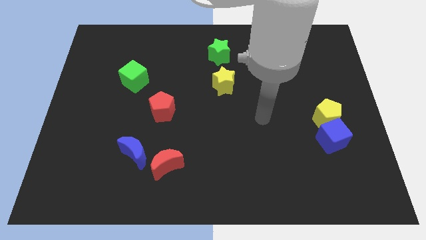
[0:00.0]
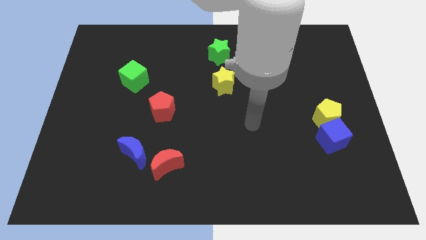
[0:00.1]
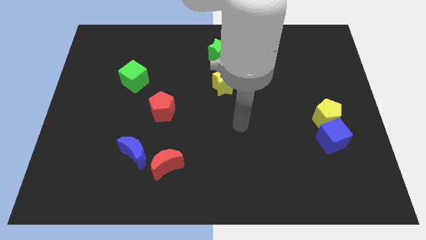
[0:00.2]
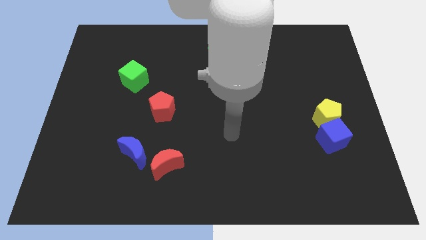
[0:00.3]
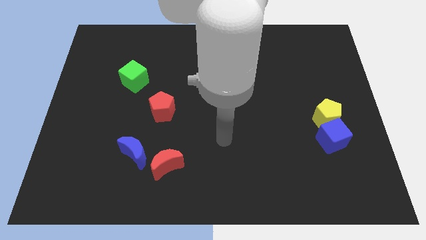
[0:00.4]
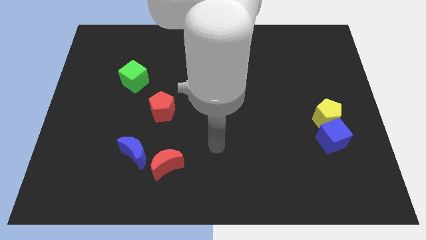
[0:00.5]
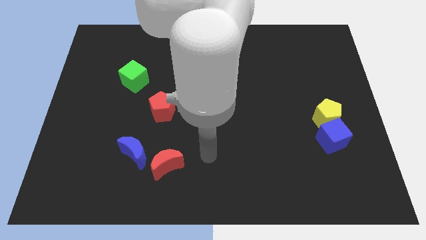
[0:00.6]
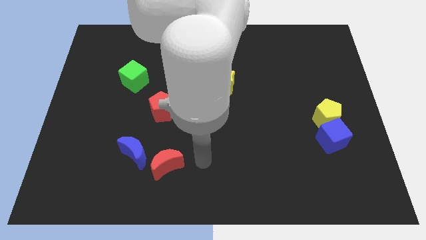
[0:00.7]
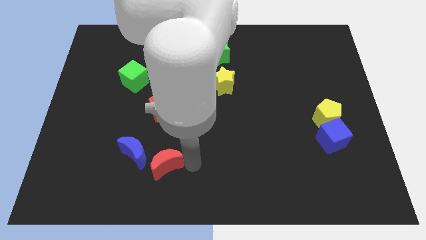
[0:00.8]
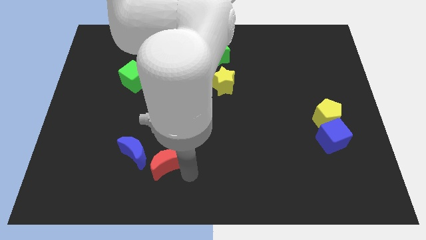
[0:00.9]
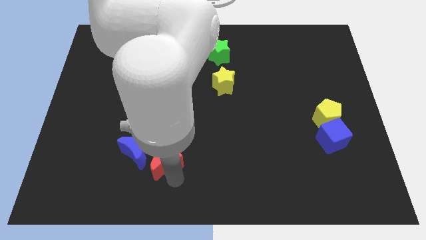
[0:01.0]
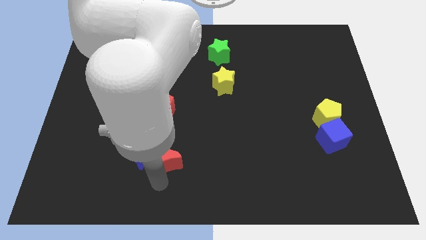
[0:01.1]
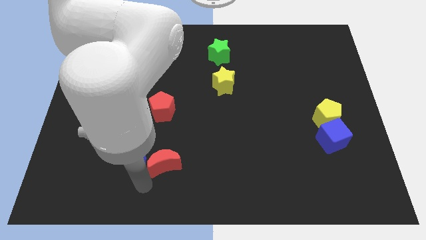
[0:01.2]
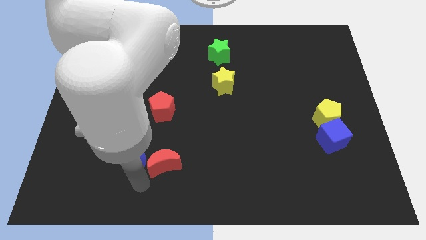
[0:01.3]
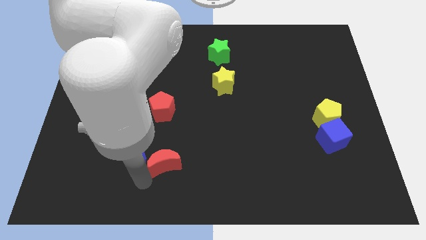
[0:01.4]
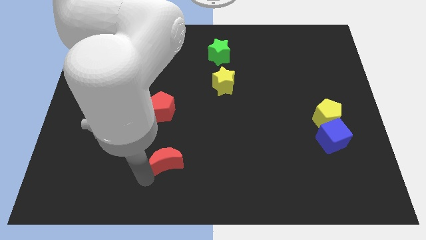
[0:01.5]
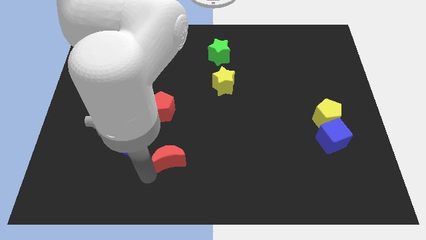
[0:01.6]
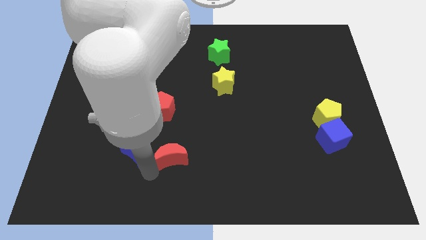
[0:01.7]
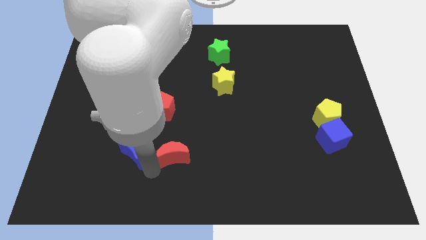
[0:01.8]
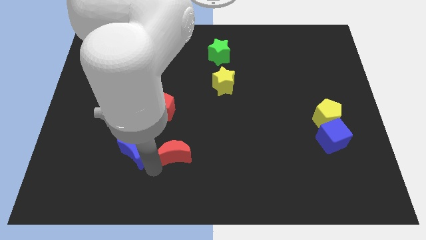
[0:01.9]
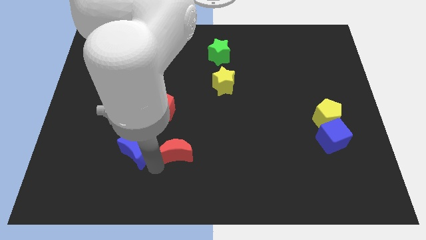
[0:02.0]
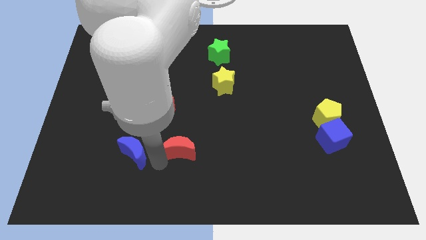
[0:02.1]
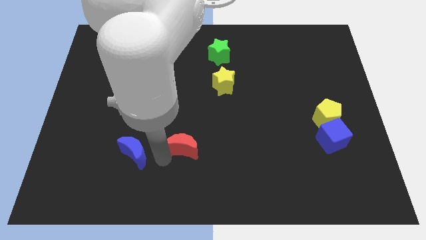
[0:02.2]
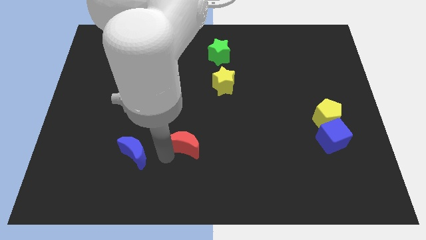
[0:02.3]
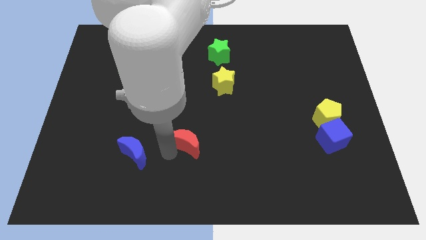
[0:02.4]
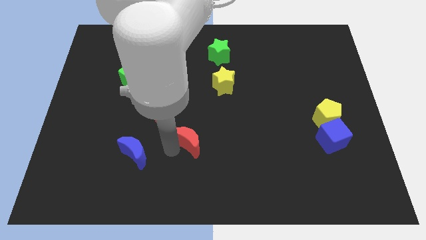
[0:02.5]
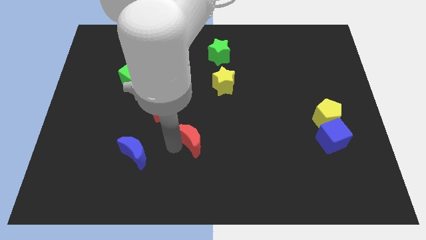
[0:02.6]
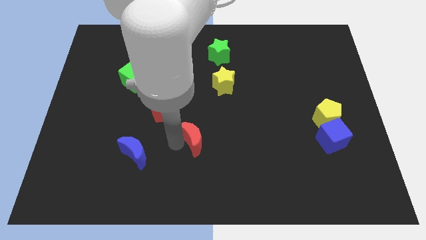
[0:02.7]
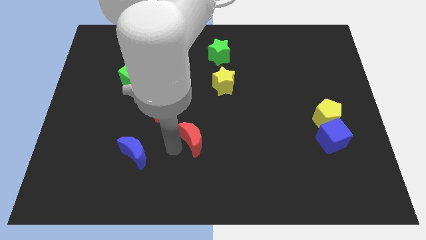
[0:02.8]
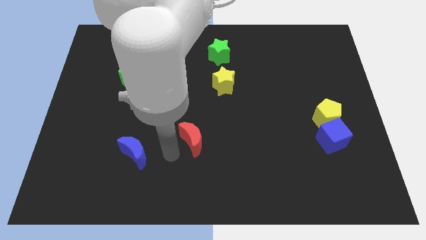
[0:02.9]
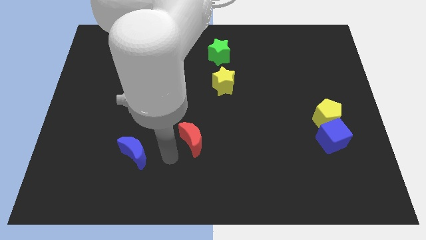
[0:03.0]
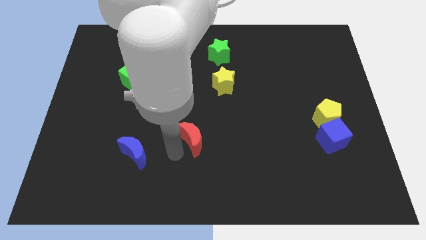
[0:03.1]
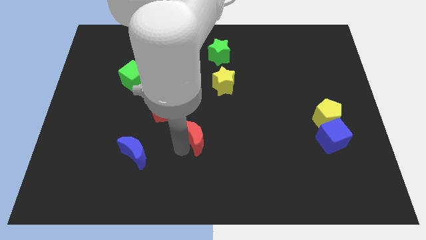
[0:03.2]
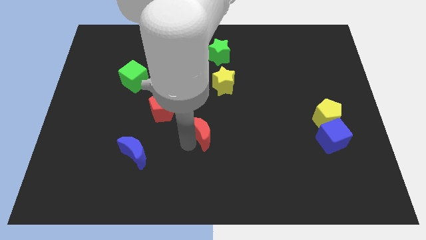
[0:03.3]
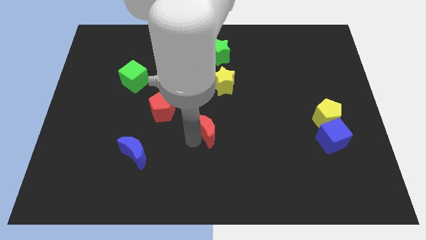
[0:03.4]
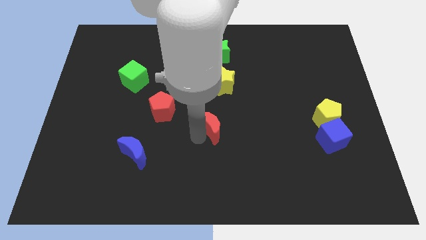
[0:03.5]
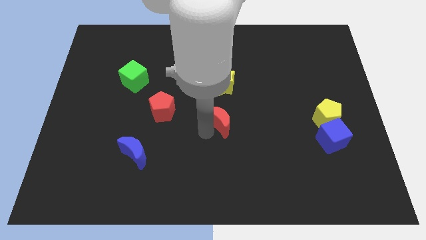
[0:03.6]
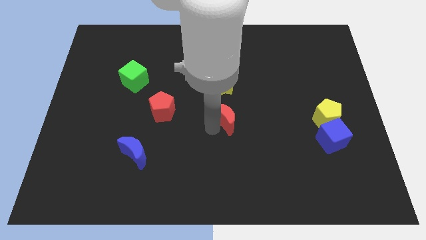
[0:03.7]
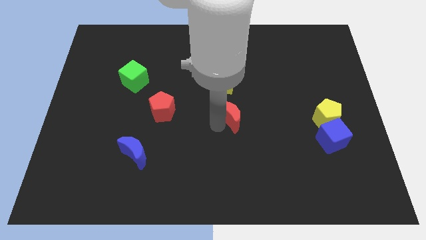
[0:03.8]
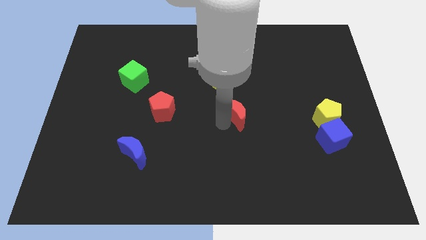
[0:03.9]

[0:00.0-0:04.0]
move the red moon diagonally upwards and right

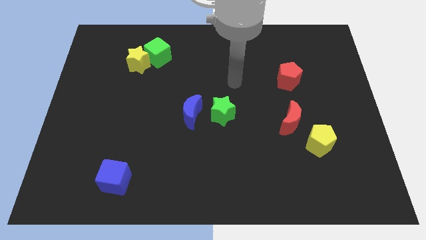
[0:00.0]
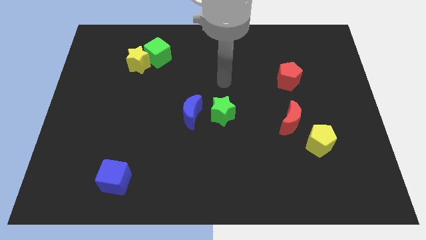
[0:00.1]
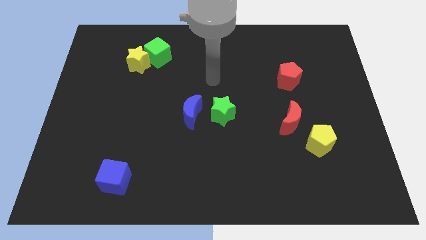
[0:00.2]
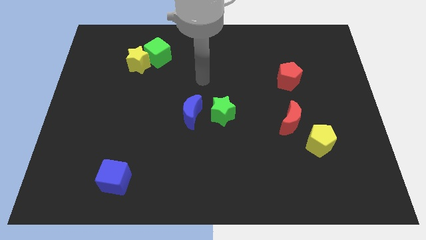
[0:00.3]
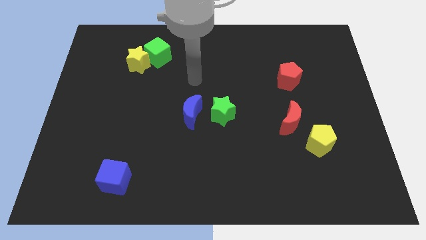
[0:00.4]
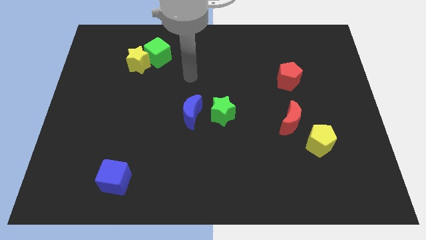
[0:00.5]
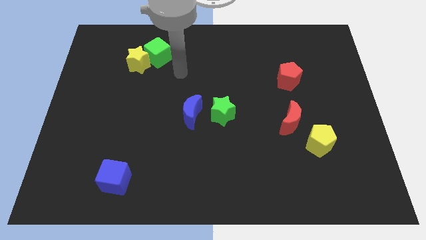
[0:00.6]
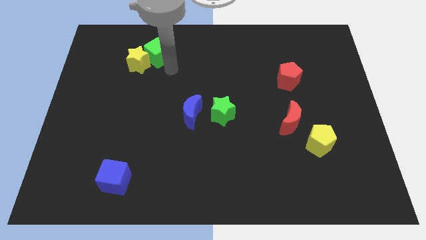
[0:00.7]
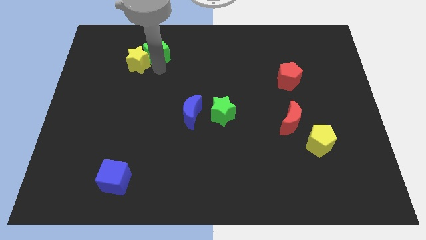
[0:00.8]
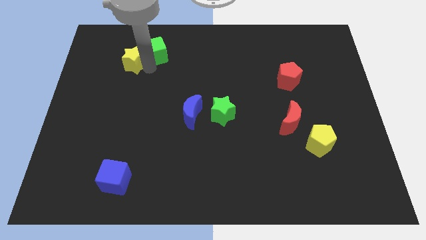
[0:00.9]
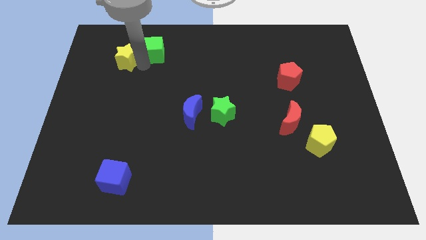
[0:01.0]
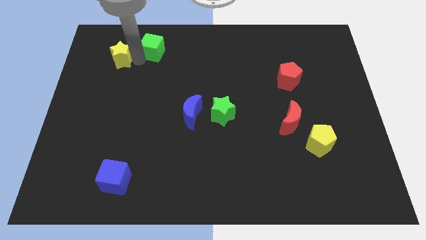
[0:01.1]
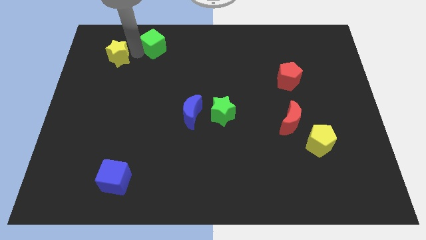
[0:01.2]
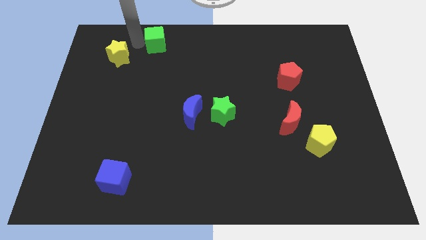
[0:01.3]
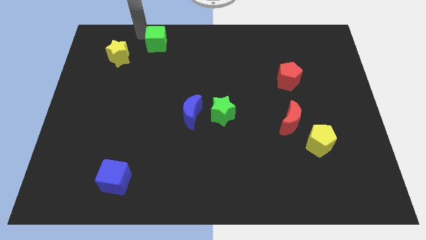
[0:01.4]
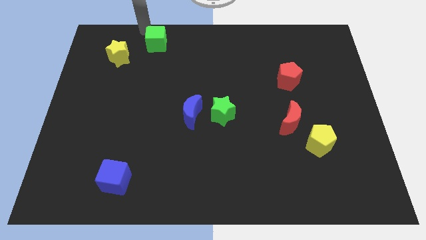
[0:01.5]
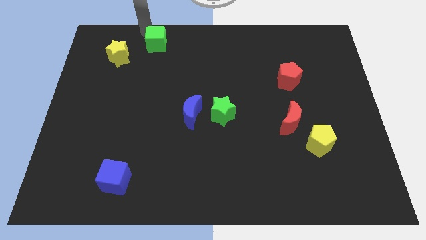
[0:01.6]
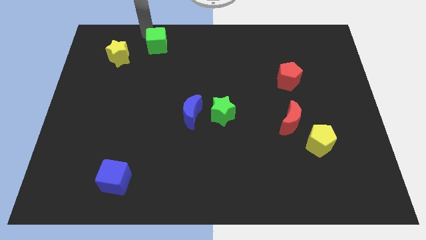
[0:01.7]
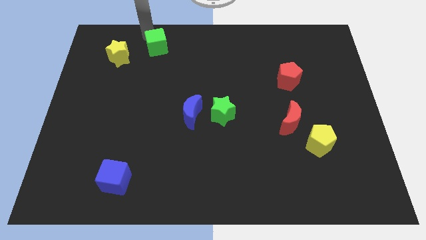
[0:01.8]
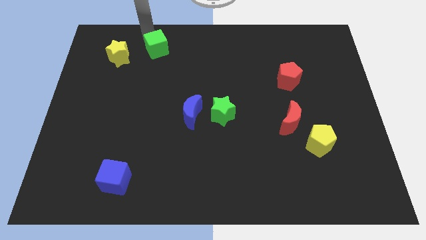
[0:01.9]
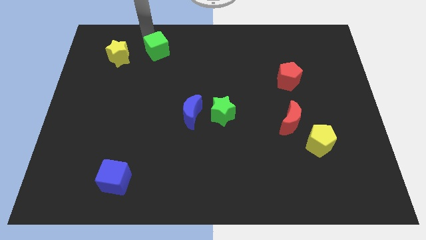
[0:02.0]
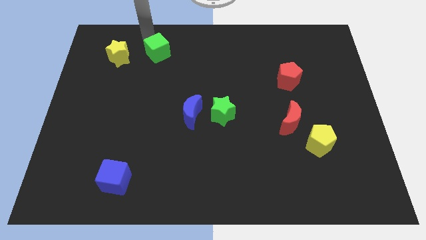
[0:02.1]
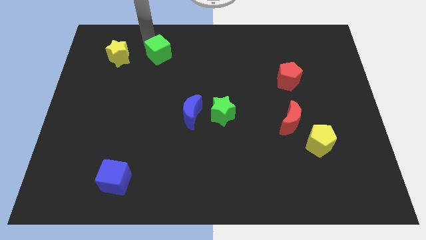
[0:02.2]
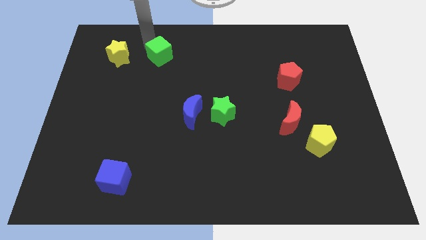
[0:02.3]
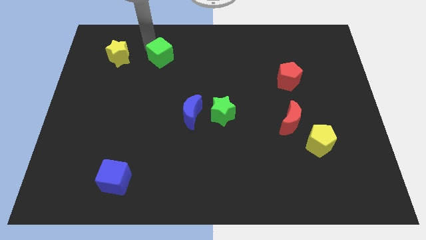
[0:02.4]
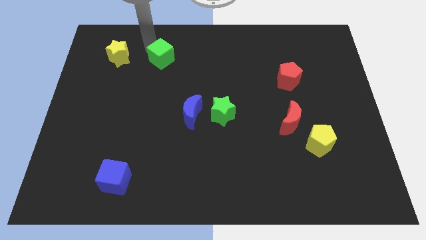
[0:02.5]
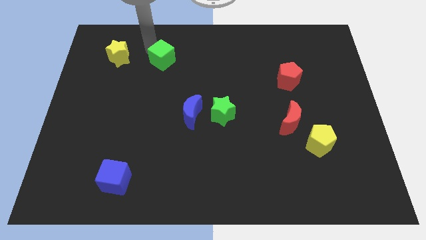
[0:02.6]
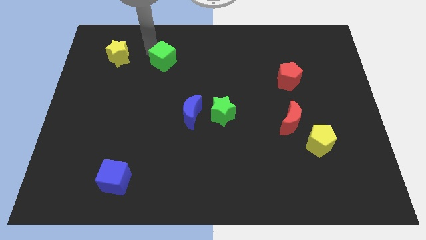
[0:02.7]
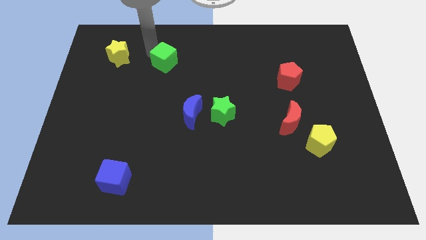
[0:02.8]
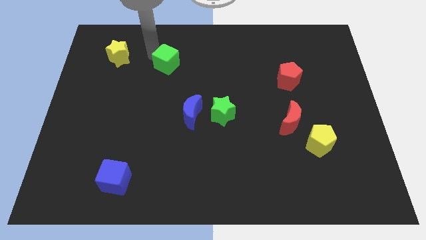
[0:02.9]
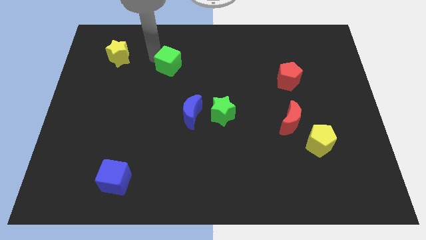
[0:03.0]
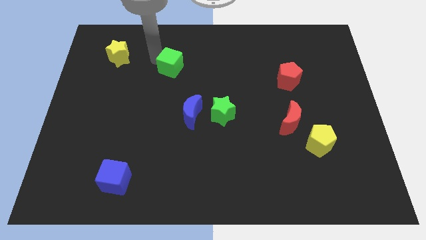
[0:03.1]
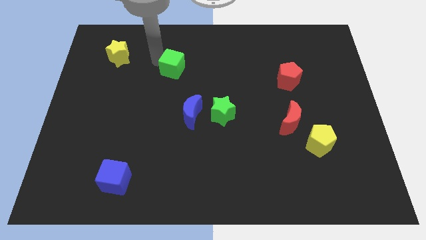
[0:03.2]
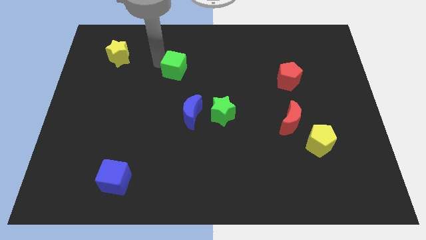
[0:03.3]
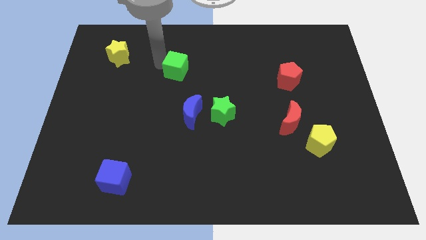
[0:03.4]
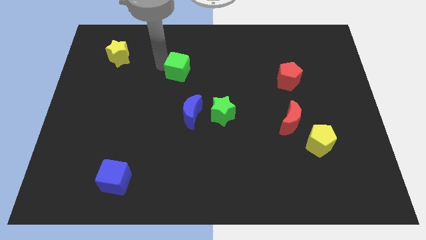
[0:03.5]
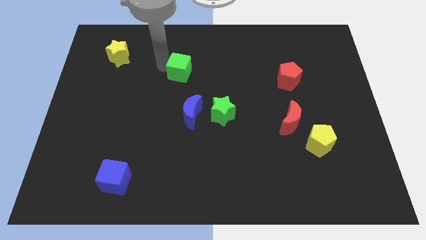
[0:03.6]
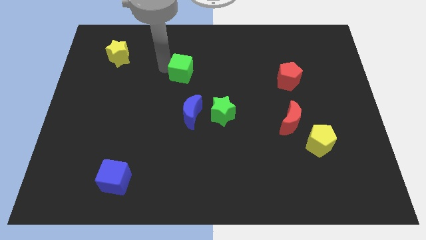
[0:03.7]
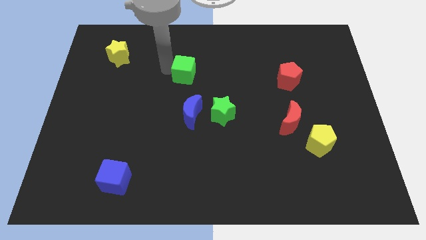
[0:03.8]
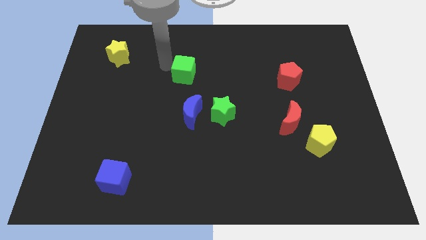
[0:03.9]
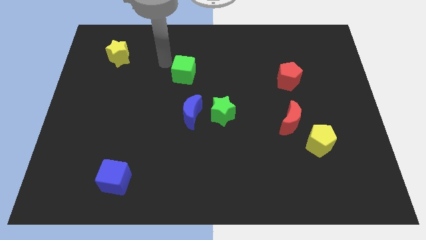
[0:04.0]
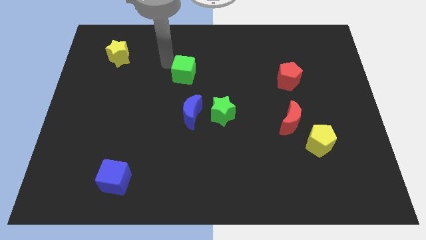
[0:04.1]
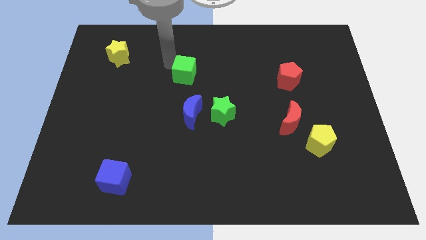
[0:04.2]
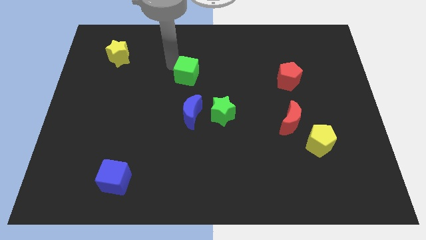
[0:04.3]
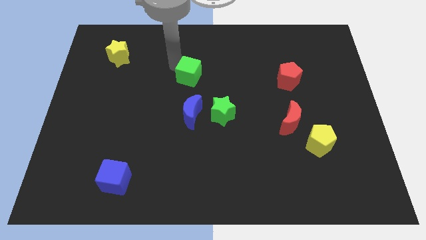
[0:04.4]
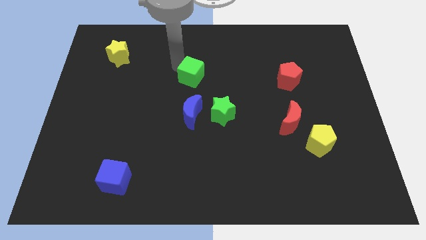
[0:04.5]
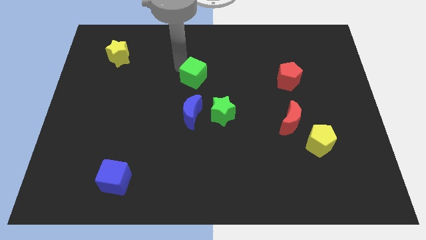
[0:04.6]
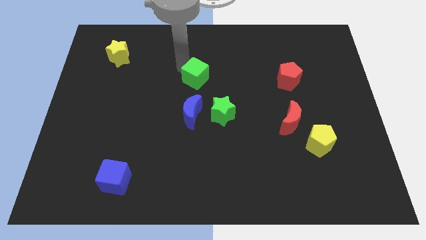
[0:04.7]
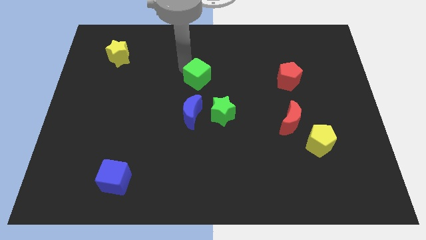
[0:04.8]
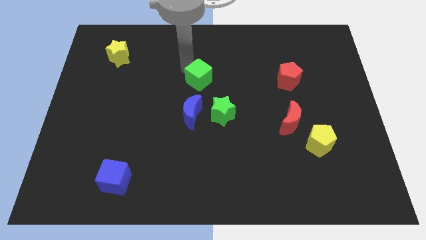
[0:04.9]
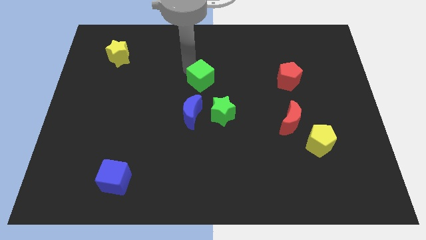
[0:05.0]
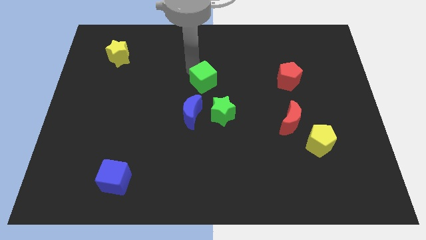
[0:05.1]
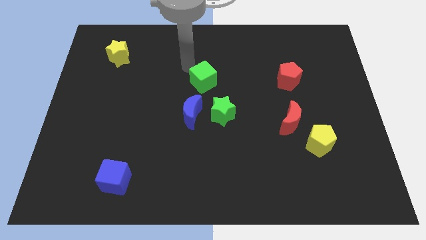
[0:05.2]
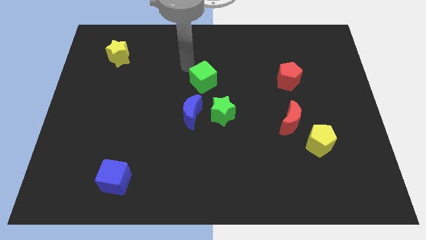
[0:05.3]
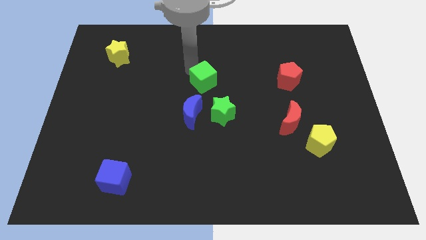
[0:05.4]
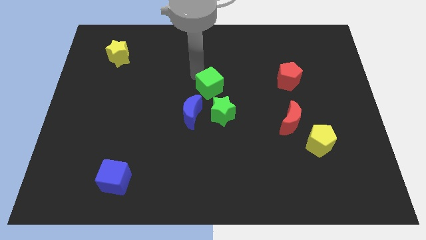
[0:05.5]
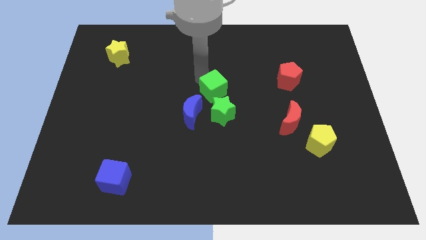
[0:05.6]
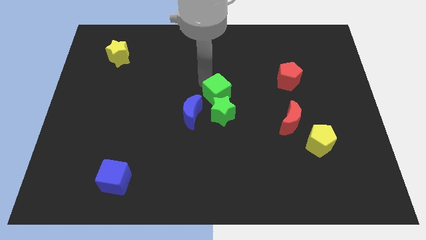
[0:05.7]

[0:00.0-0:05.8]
slide the green cube downwards and right diagonally
